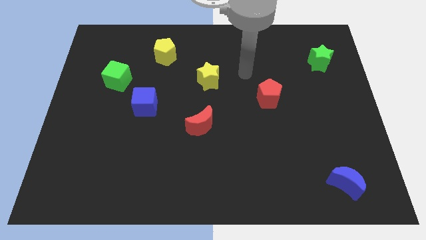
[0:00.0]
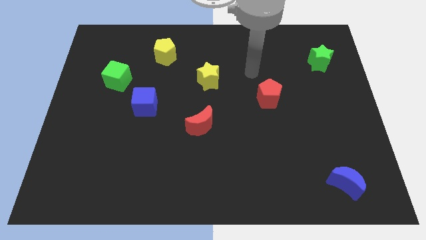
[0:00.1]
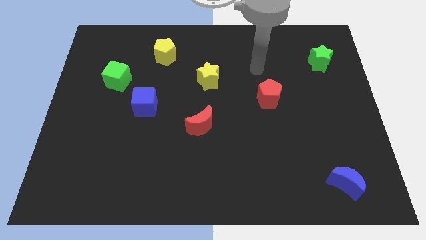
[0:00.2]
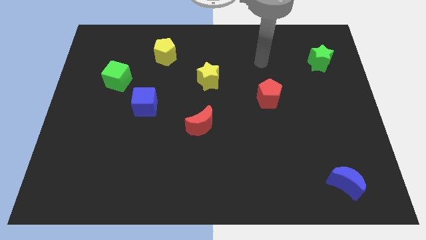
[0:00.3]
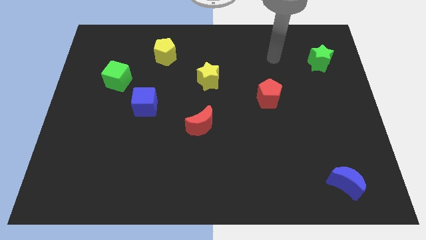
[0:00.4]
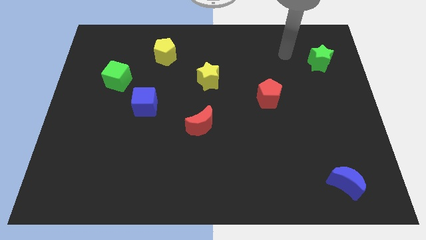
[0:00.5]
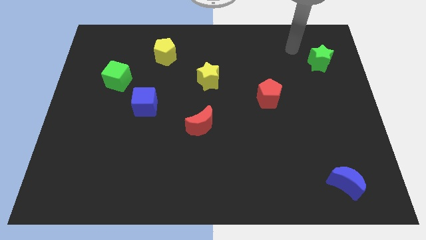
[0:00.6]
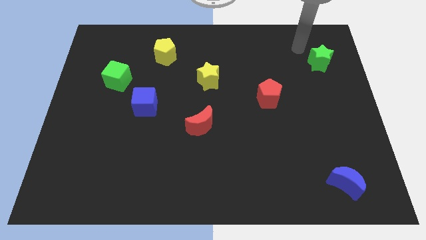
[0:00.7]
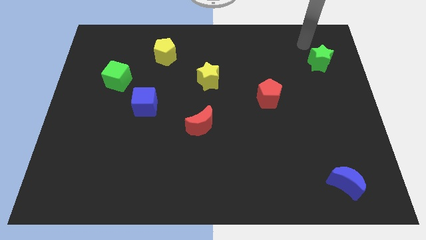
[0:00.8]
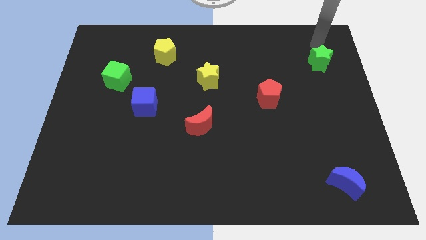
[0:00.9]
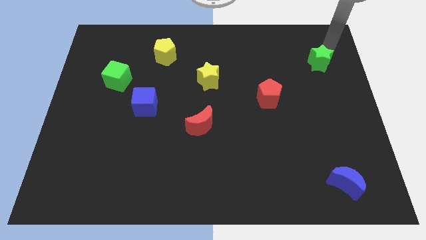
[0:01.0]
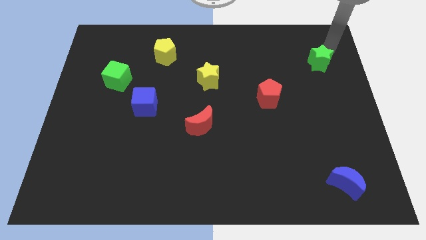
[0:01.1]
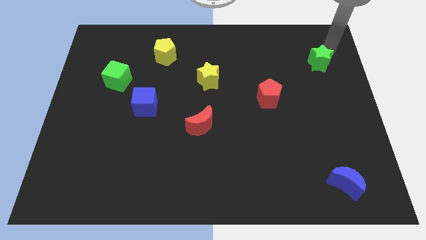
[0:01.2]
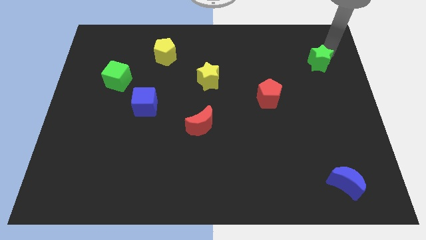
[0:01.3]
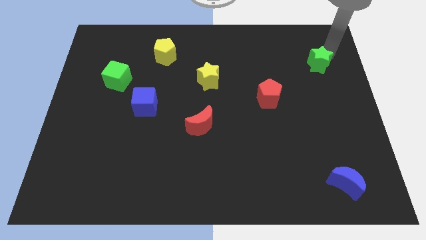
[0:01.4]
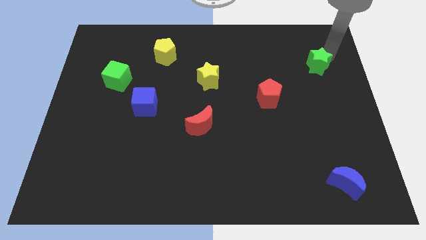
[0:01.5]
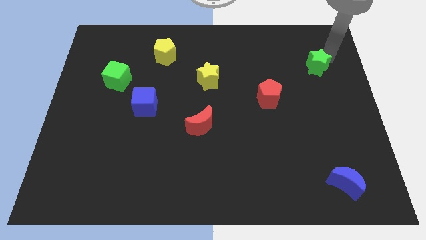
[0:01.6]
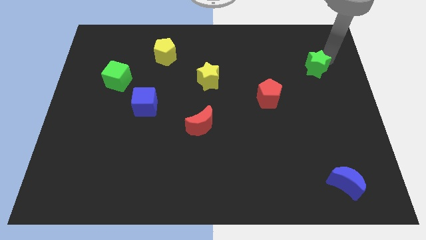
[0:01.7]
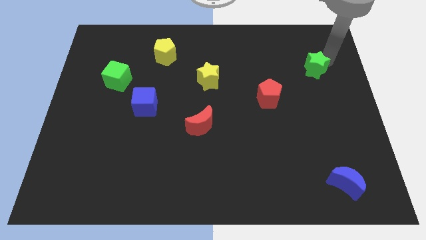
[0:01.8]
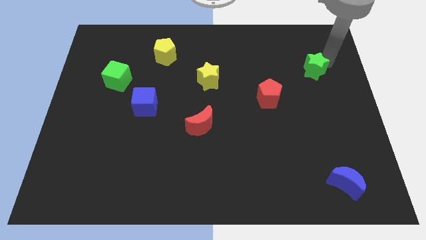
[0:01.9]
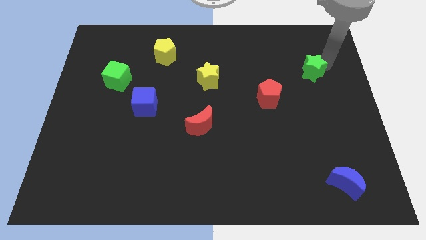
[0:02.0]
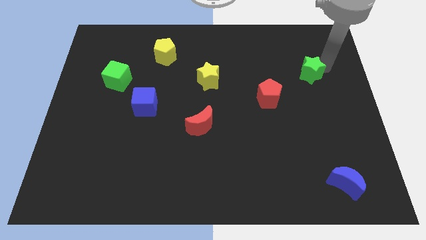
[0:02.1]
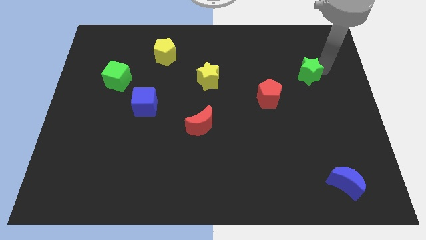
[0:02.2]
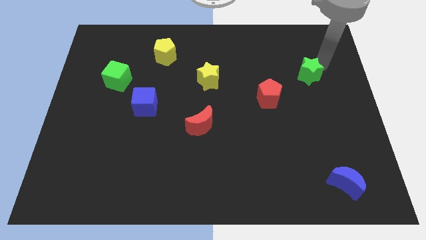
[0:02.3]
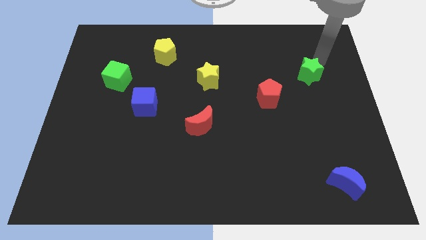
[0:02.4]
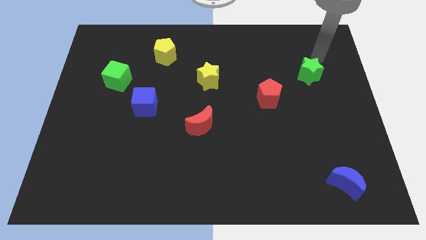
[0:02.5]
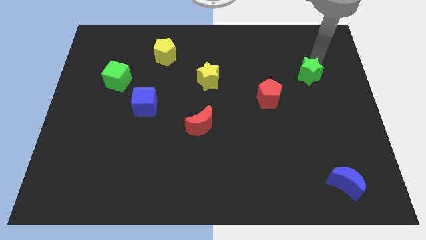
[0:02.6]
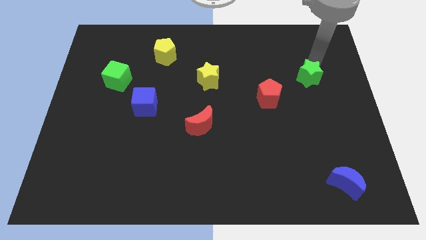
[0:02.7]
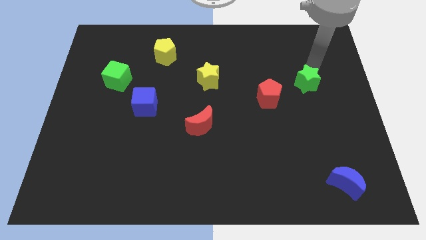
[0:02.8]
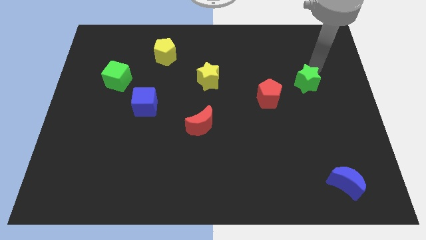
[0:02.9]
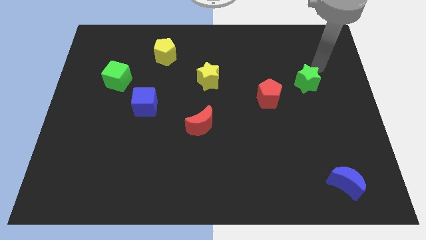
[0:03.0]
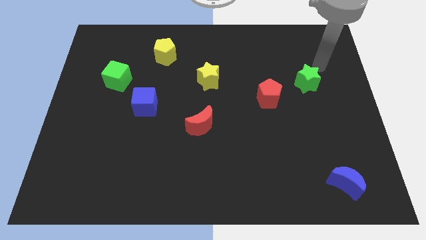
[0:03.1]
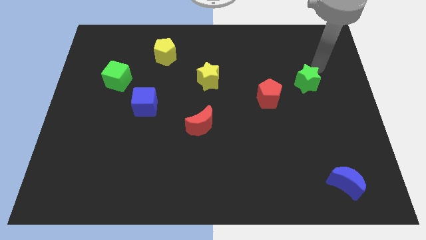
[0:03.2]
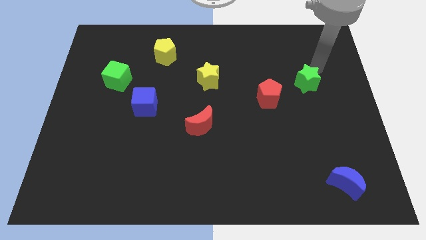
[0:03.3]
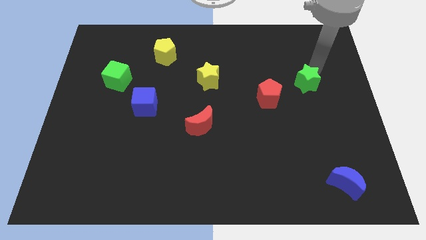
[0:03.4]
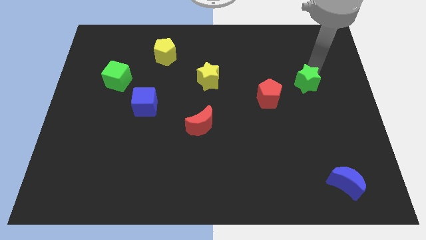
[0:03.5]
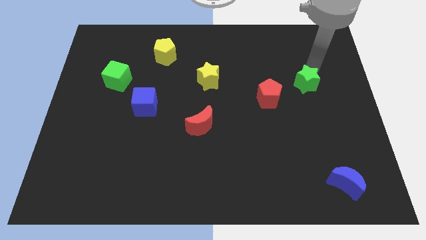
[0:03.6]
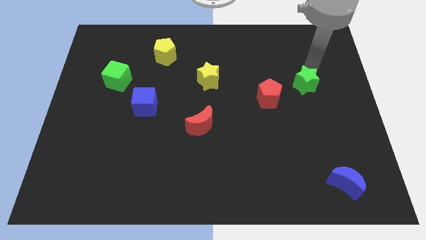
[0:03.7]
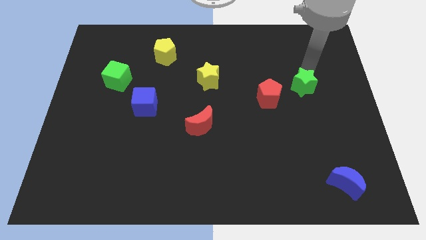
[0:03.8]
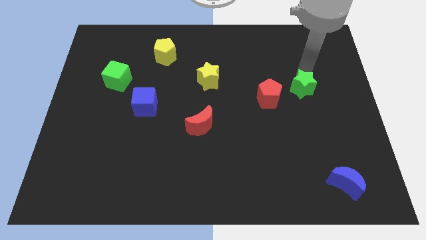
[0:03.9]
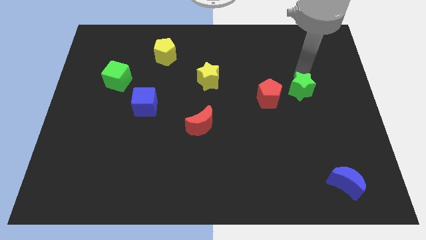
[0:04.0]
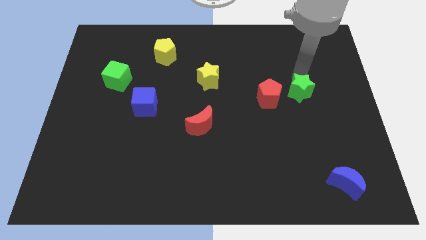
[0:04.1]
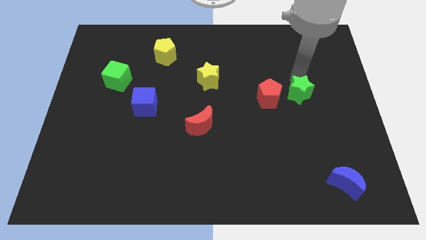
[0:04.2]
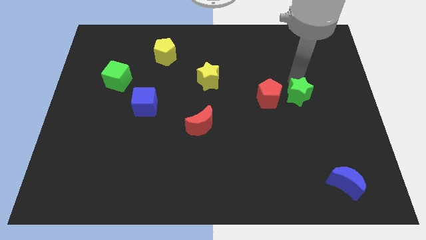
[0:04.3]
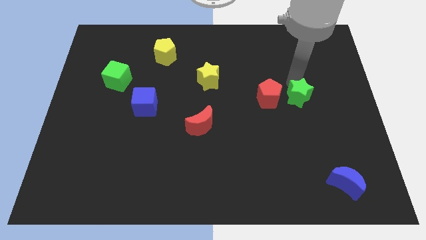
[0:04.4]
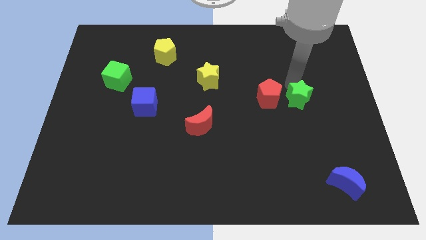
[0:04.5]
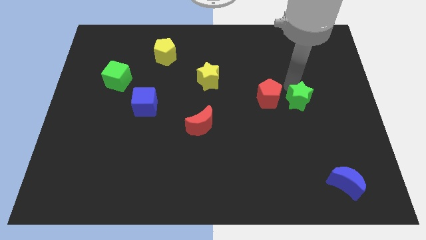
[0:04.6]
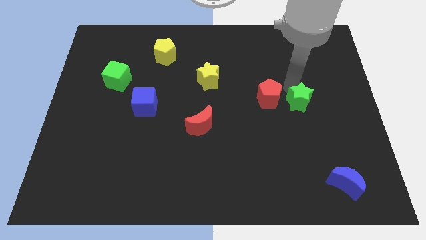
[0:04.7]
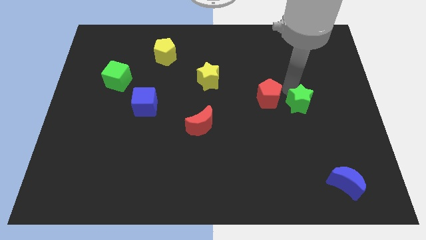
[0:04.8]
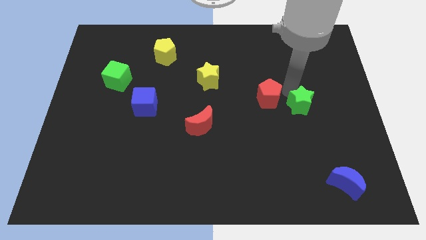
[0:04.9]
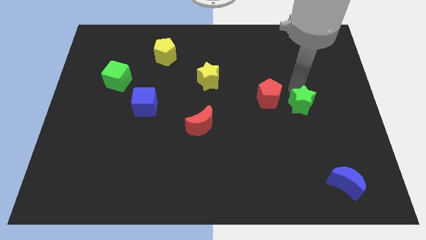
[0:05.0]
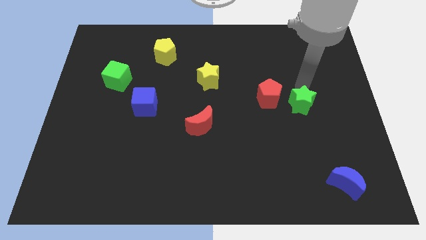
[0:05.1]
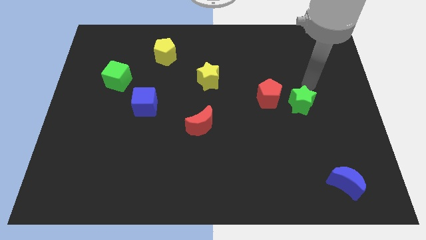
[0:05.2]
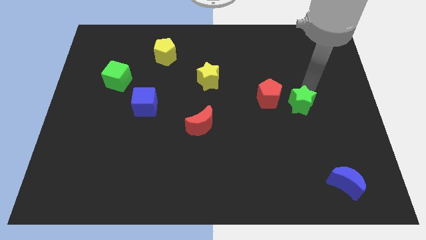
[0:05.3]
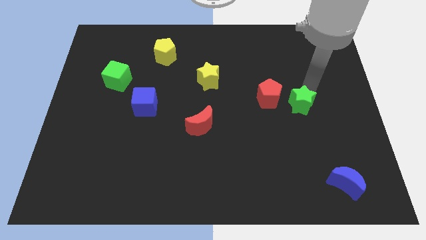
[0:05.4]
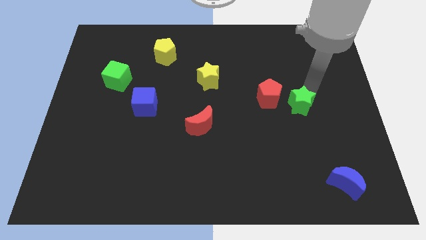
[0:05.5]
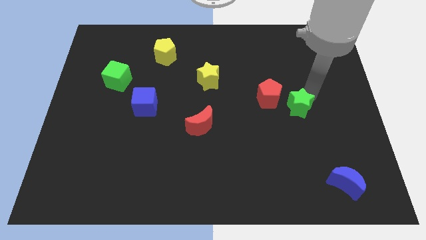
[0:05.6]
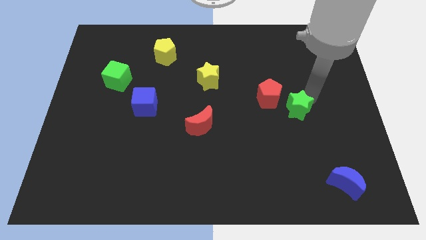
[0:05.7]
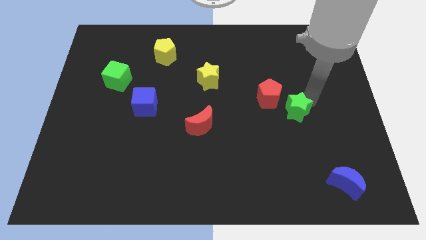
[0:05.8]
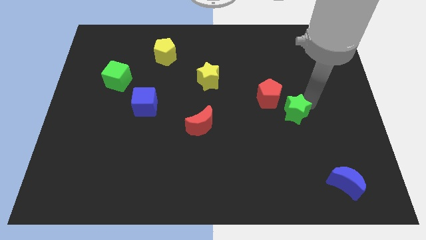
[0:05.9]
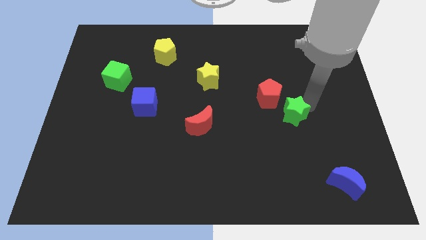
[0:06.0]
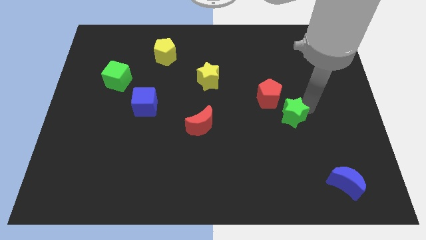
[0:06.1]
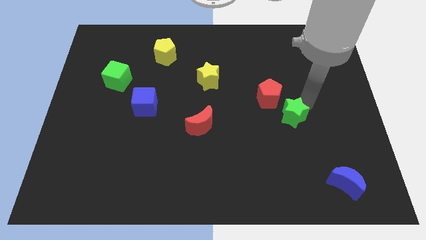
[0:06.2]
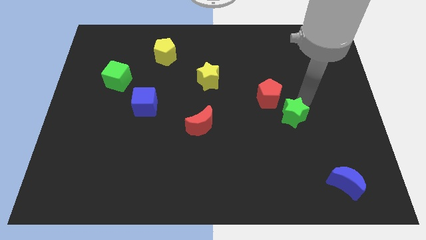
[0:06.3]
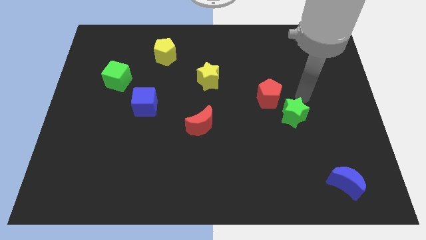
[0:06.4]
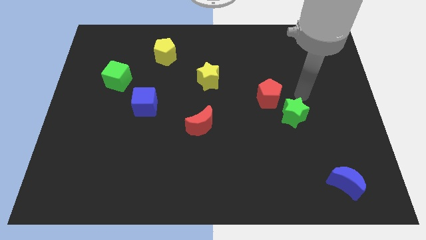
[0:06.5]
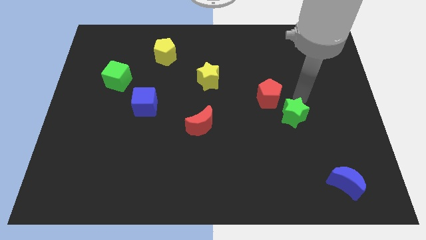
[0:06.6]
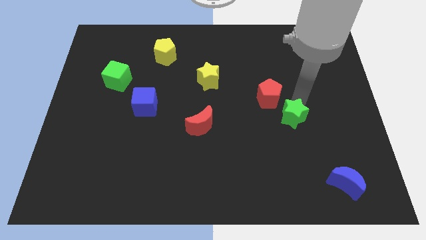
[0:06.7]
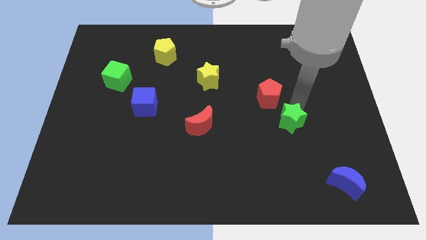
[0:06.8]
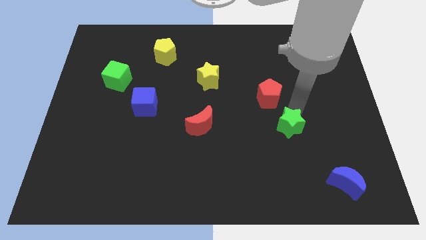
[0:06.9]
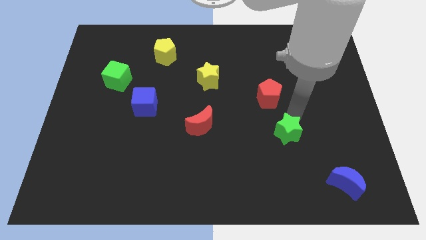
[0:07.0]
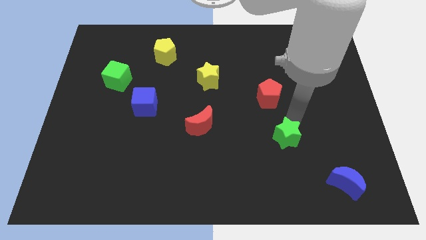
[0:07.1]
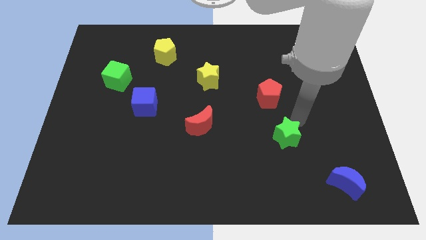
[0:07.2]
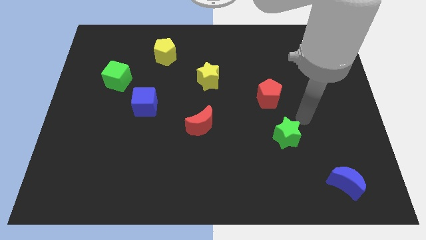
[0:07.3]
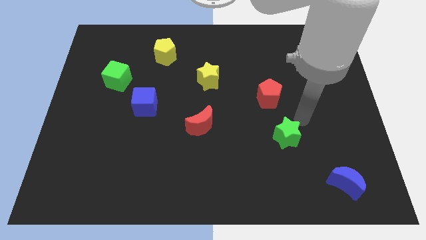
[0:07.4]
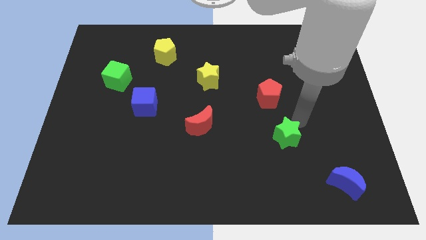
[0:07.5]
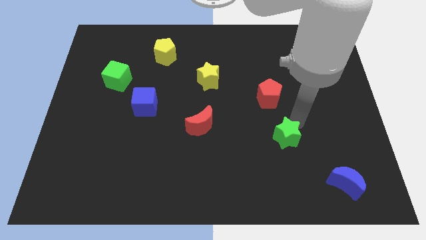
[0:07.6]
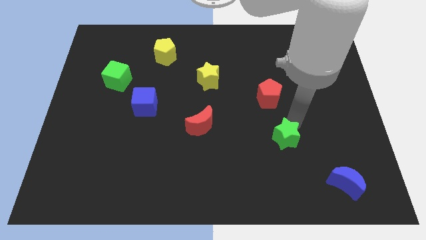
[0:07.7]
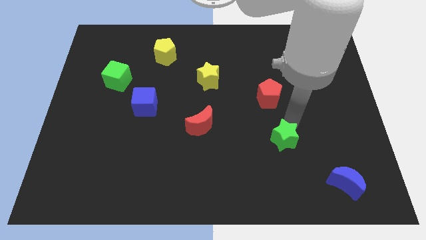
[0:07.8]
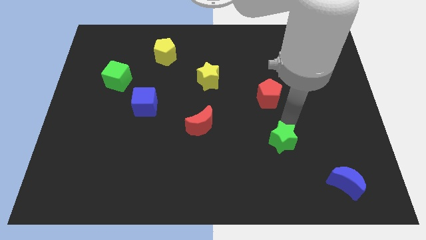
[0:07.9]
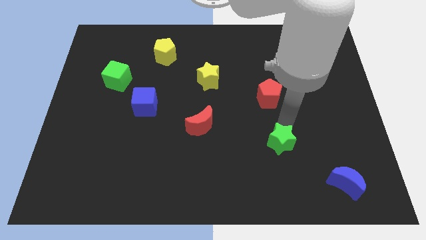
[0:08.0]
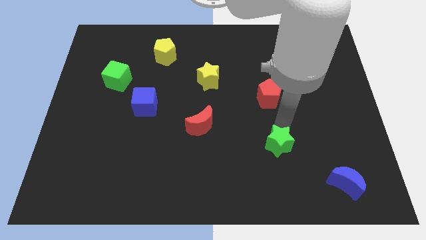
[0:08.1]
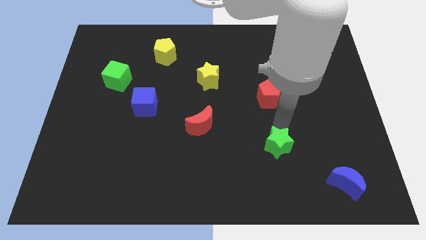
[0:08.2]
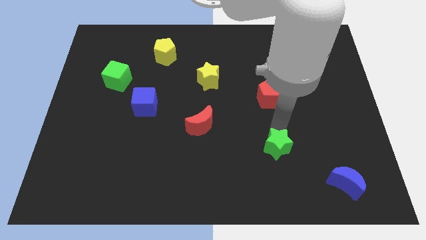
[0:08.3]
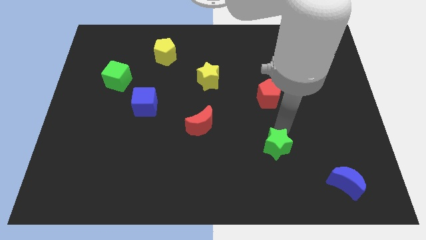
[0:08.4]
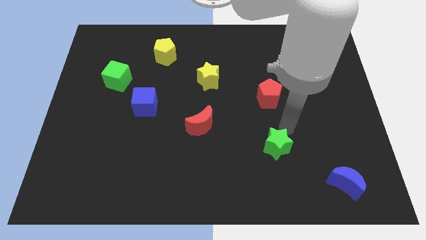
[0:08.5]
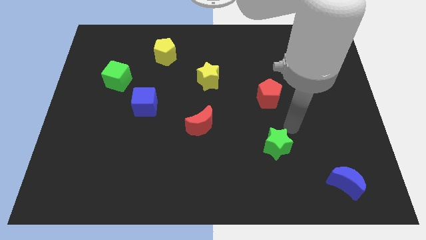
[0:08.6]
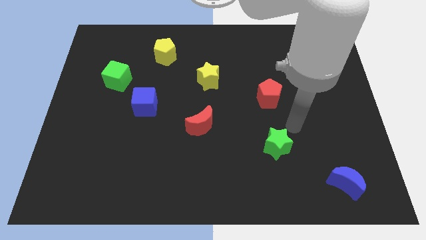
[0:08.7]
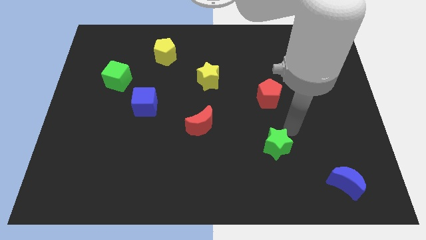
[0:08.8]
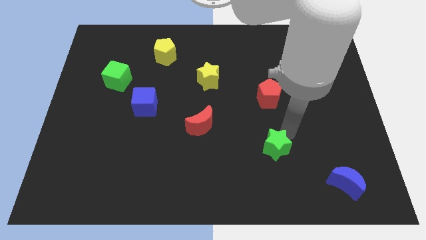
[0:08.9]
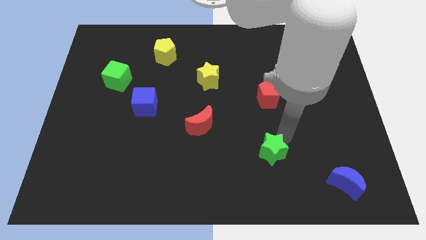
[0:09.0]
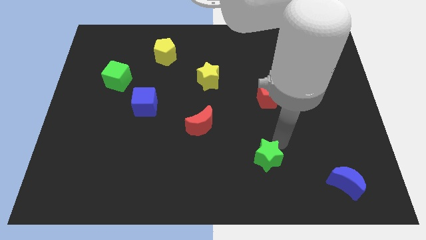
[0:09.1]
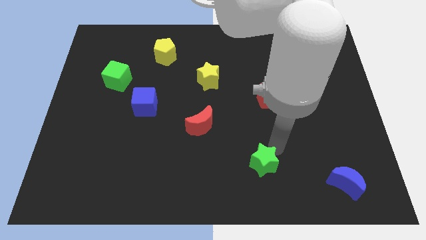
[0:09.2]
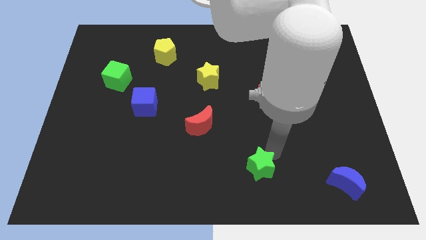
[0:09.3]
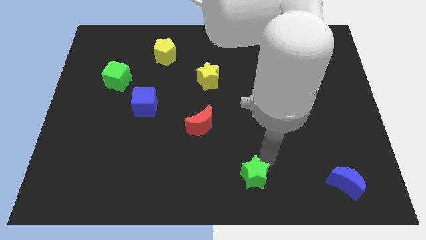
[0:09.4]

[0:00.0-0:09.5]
move the green star to the bottom side
